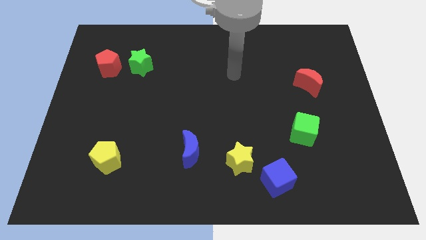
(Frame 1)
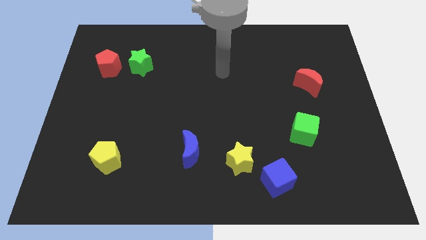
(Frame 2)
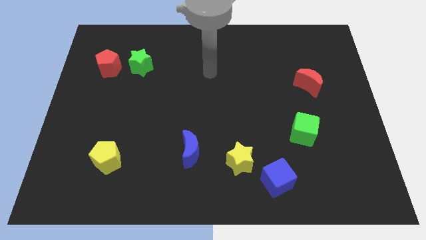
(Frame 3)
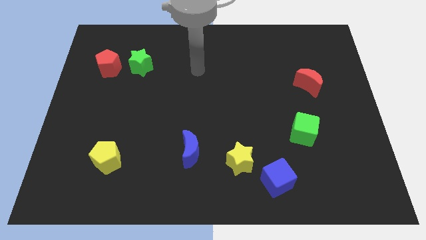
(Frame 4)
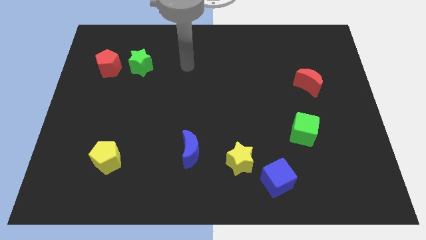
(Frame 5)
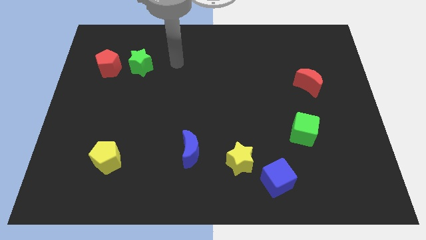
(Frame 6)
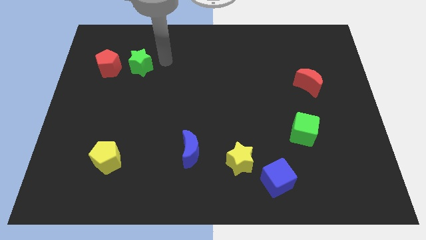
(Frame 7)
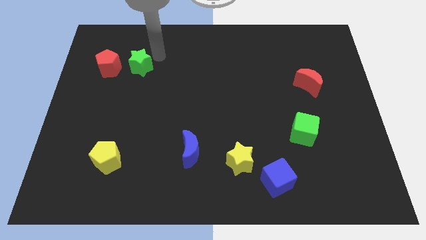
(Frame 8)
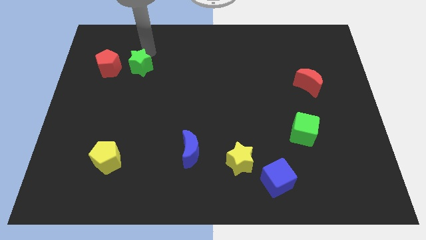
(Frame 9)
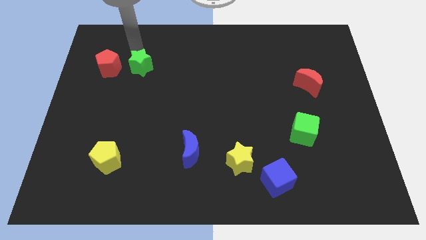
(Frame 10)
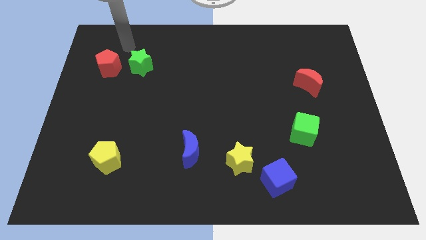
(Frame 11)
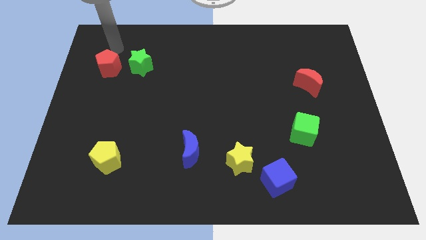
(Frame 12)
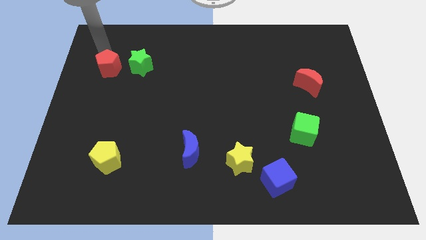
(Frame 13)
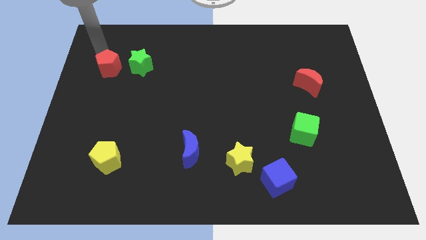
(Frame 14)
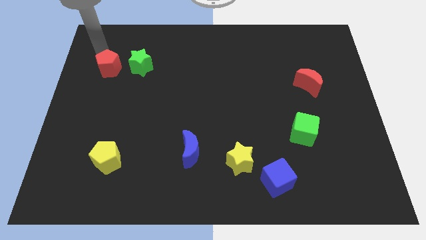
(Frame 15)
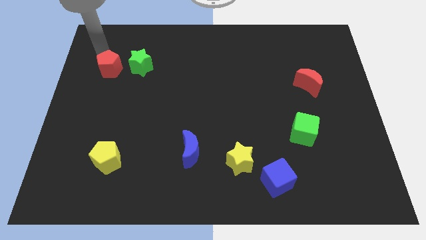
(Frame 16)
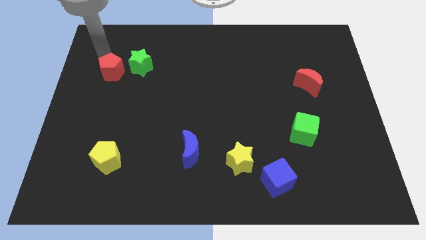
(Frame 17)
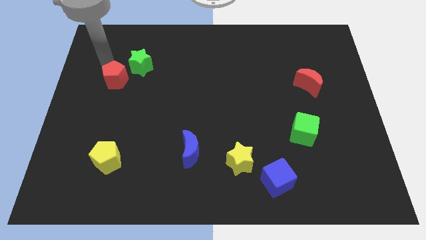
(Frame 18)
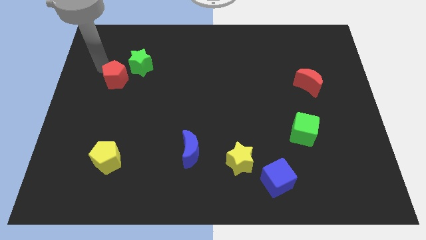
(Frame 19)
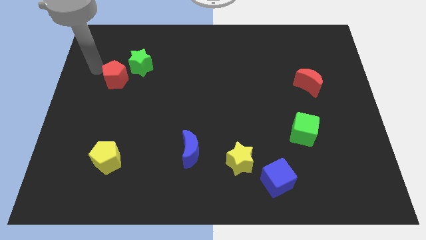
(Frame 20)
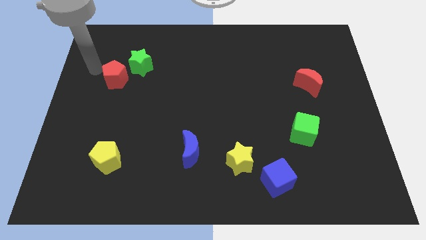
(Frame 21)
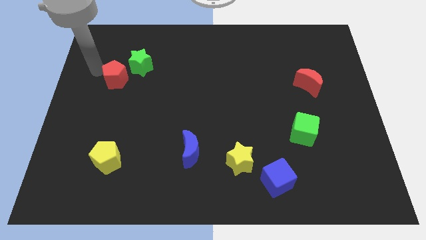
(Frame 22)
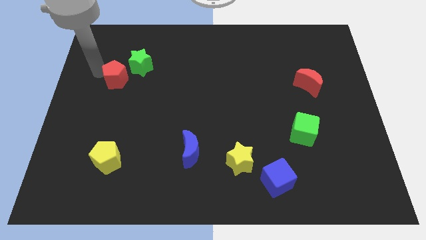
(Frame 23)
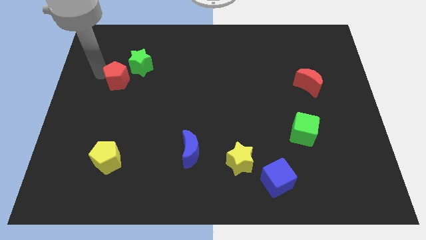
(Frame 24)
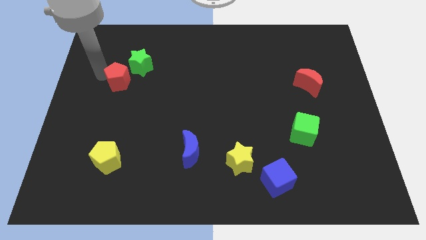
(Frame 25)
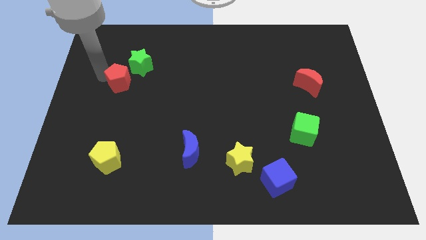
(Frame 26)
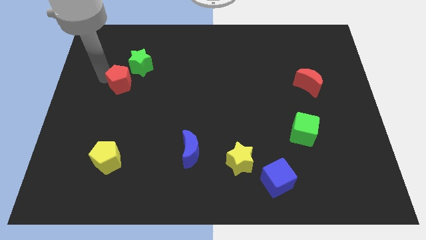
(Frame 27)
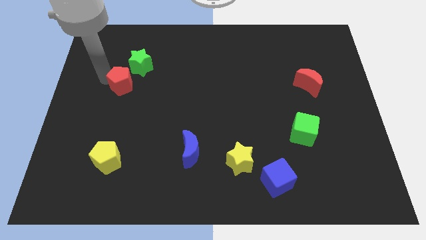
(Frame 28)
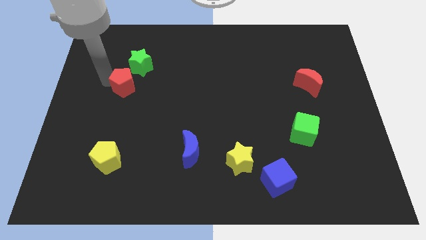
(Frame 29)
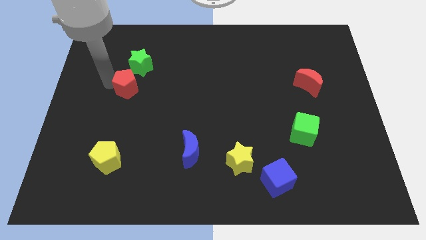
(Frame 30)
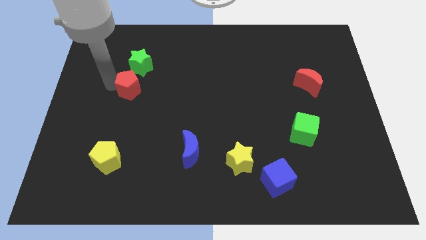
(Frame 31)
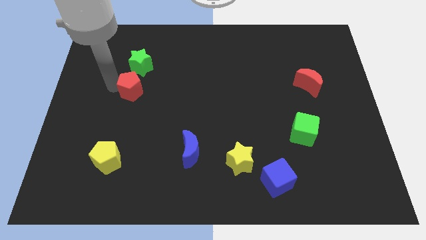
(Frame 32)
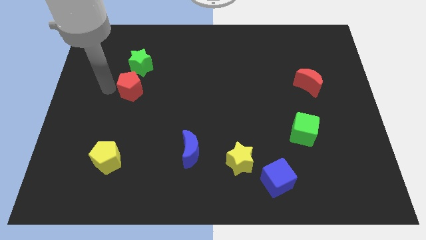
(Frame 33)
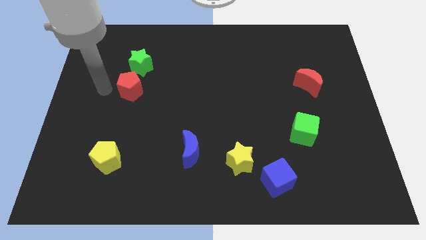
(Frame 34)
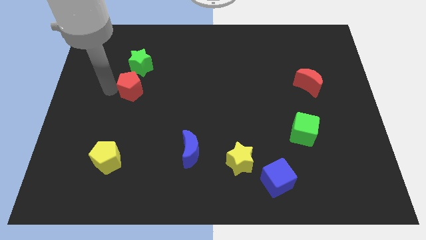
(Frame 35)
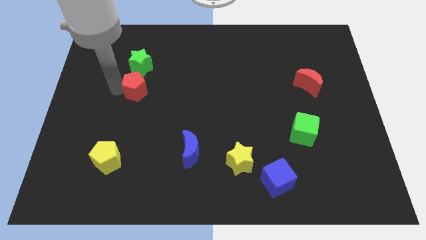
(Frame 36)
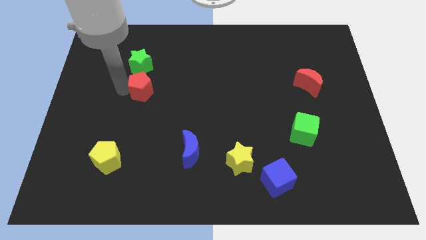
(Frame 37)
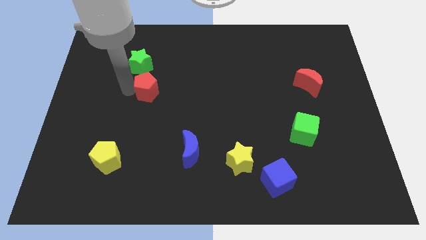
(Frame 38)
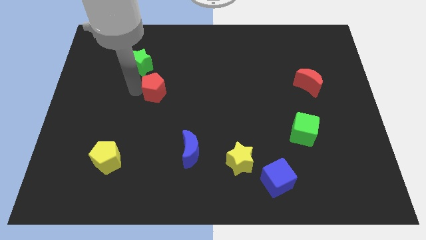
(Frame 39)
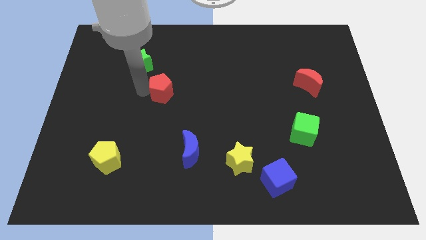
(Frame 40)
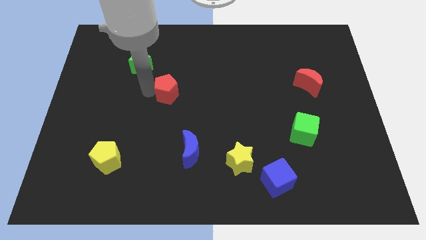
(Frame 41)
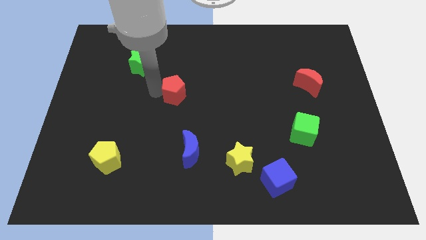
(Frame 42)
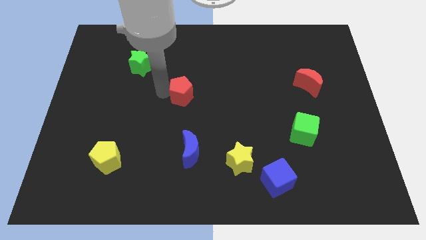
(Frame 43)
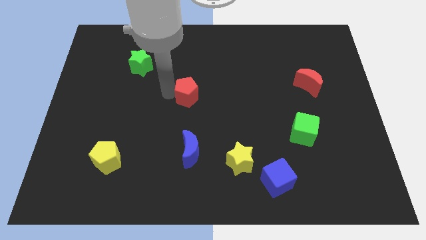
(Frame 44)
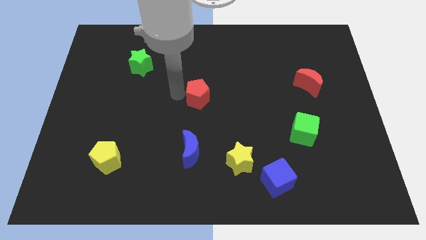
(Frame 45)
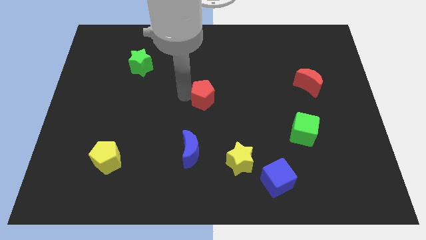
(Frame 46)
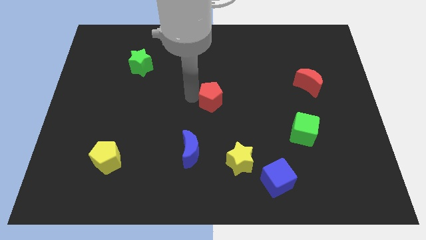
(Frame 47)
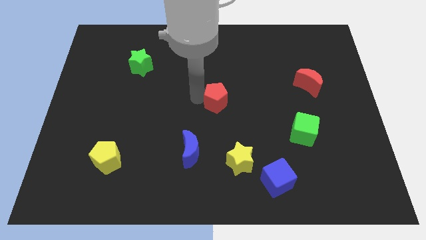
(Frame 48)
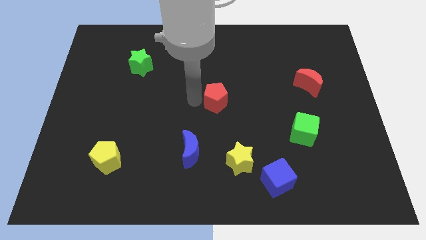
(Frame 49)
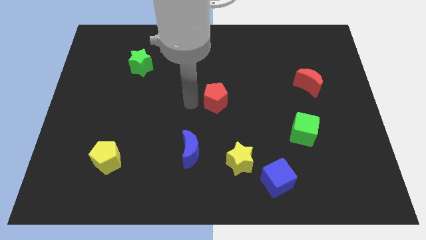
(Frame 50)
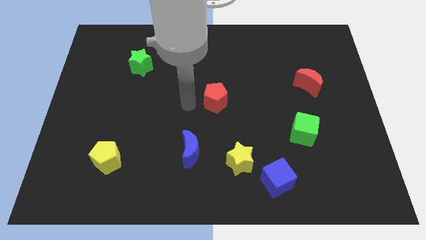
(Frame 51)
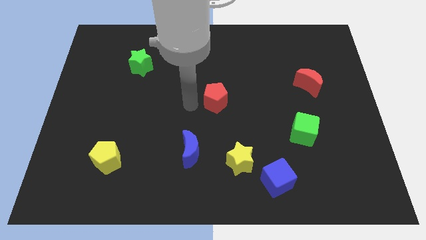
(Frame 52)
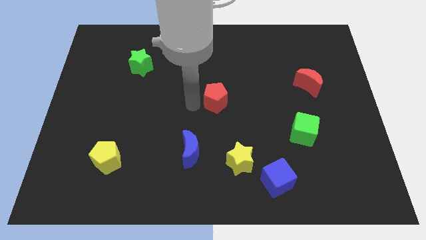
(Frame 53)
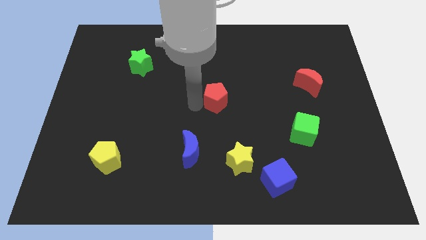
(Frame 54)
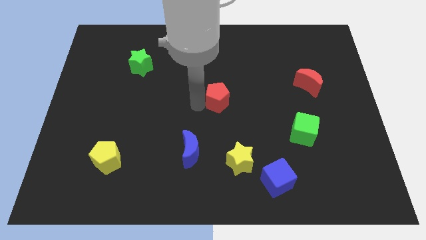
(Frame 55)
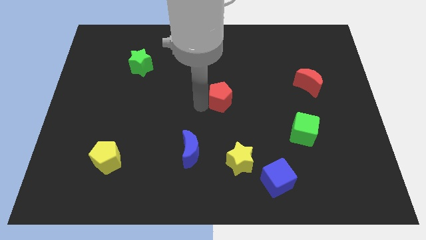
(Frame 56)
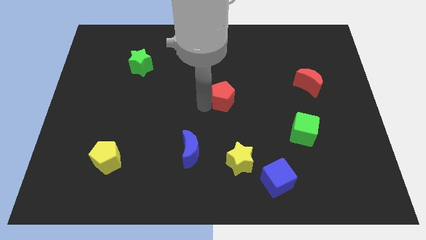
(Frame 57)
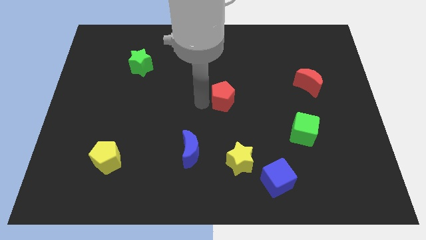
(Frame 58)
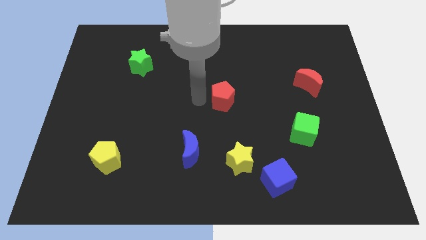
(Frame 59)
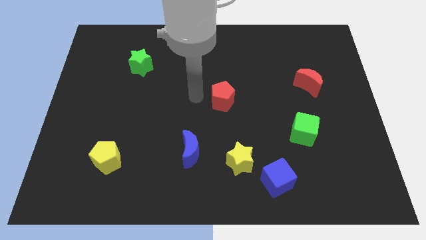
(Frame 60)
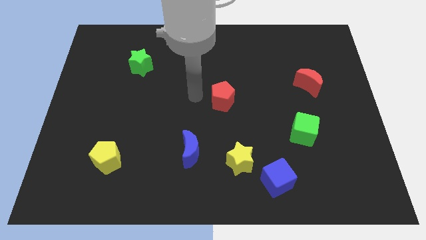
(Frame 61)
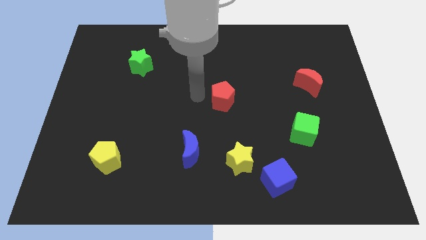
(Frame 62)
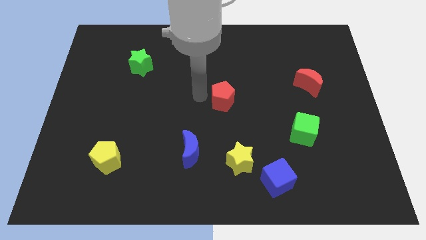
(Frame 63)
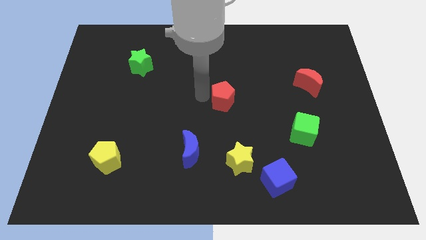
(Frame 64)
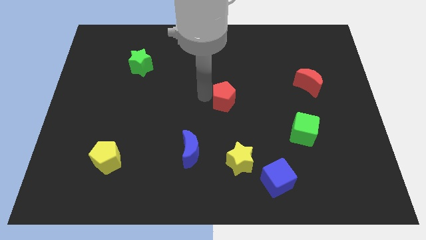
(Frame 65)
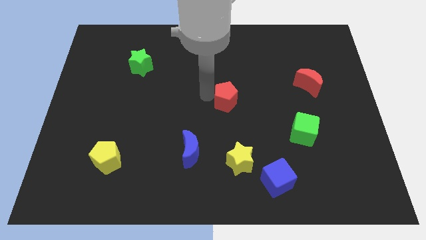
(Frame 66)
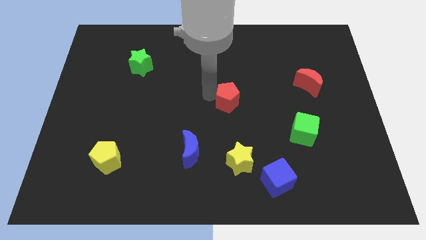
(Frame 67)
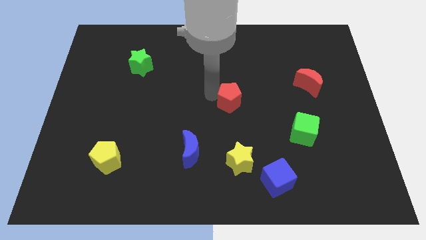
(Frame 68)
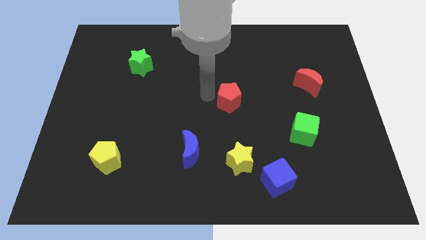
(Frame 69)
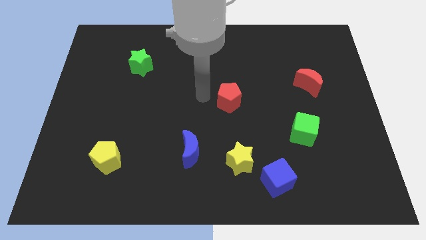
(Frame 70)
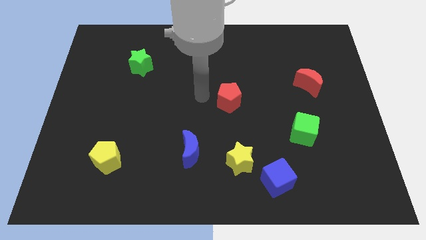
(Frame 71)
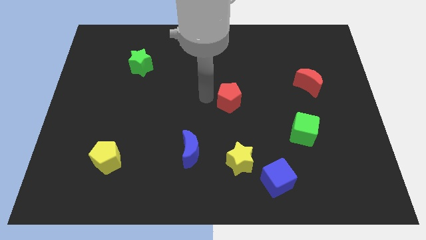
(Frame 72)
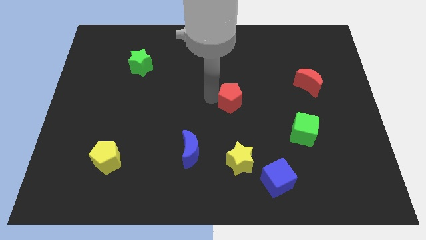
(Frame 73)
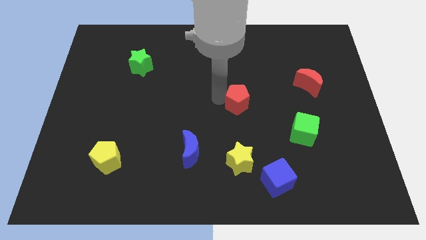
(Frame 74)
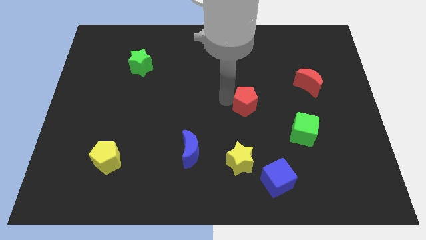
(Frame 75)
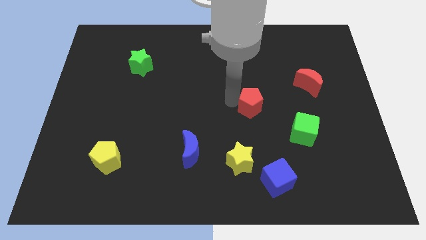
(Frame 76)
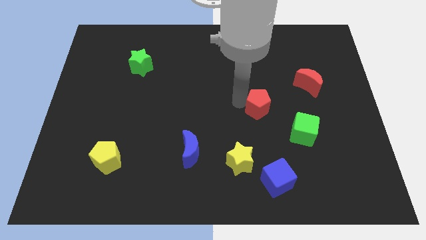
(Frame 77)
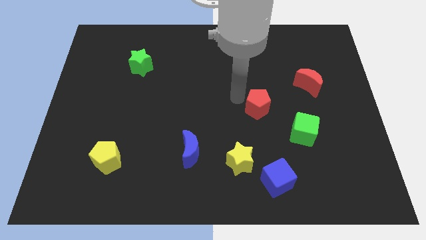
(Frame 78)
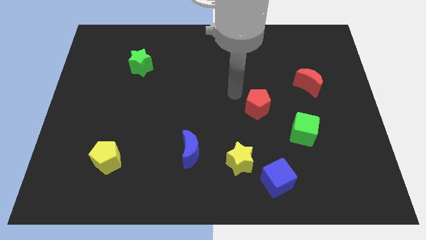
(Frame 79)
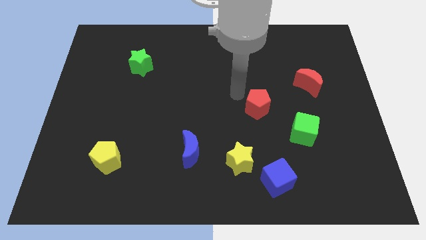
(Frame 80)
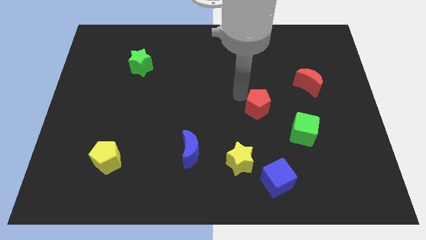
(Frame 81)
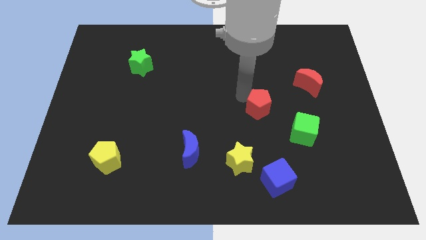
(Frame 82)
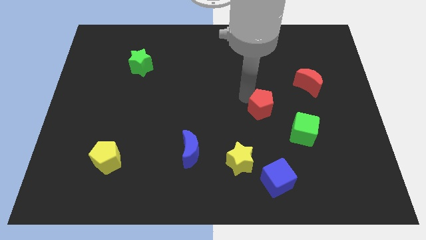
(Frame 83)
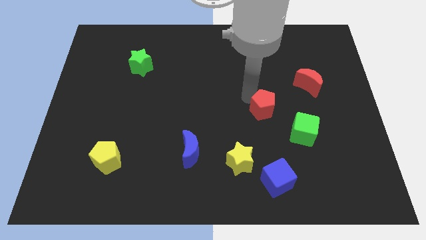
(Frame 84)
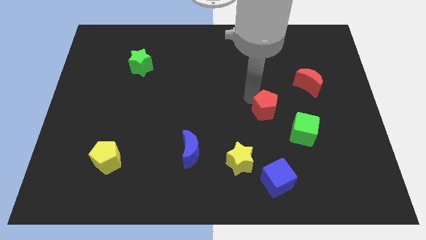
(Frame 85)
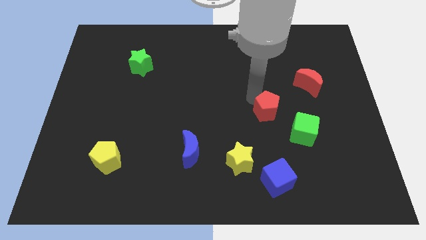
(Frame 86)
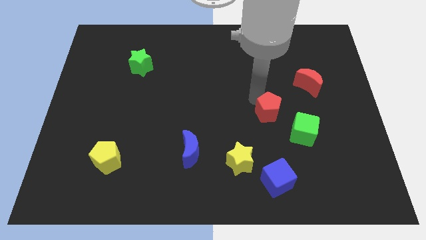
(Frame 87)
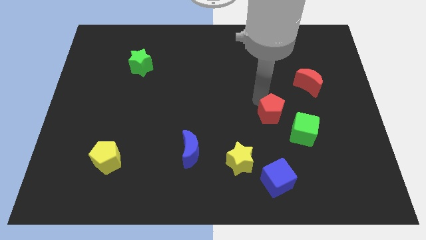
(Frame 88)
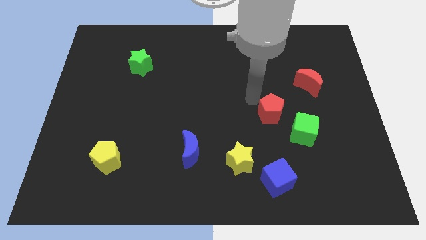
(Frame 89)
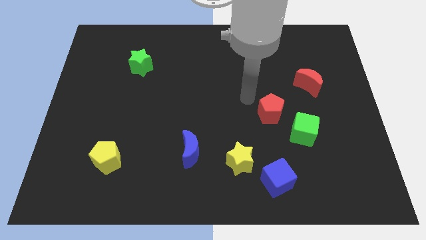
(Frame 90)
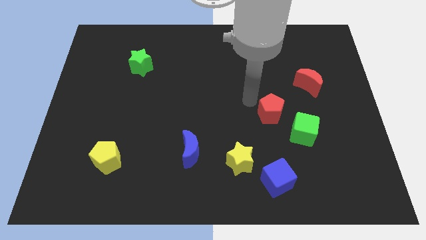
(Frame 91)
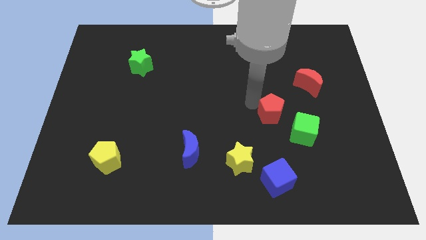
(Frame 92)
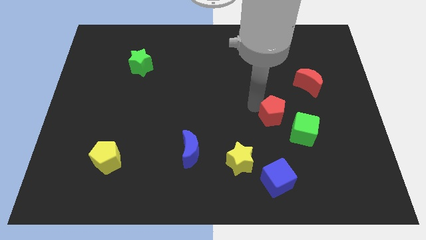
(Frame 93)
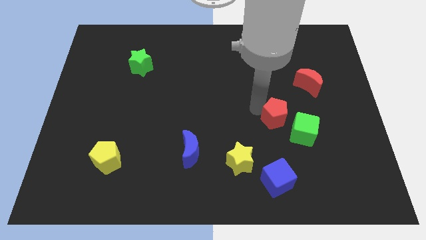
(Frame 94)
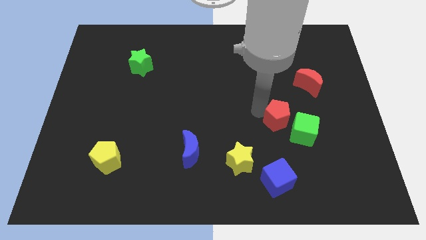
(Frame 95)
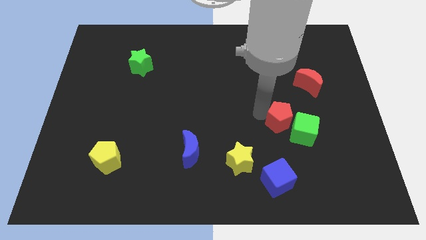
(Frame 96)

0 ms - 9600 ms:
put the red pentagon towards the green cube
